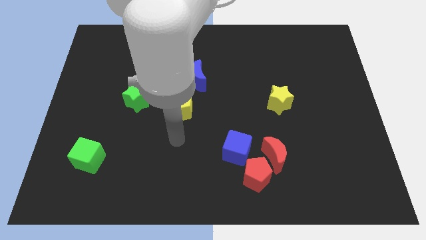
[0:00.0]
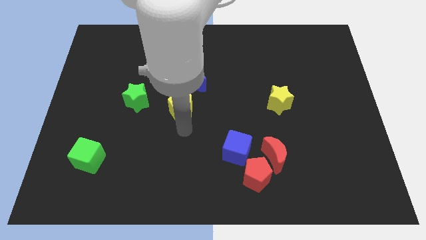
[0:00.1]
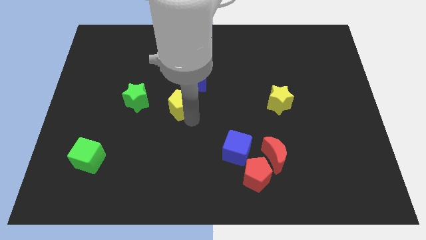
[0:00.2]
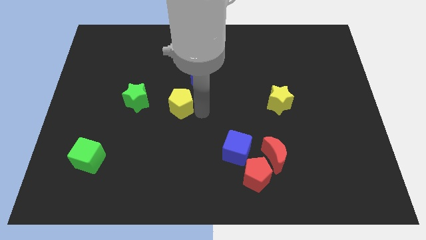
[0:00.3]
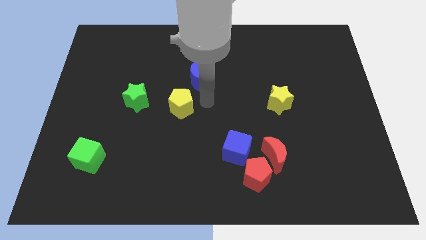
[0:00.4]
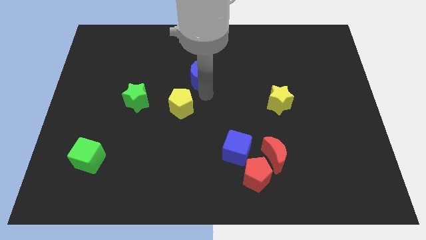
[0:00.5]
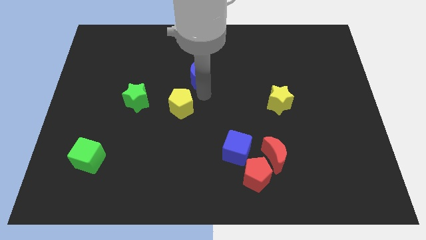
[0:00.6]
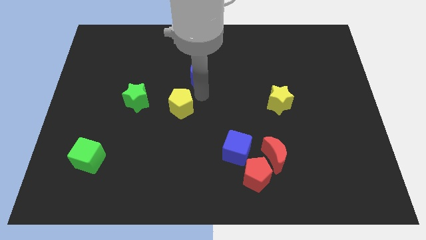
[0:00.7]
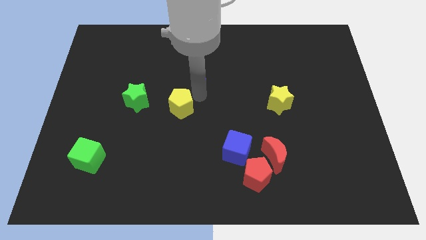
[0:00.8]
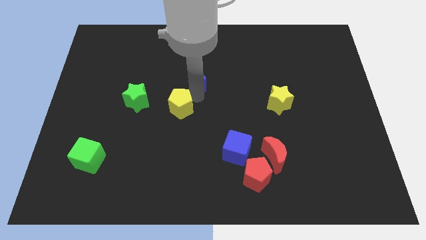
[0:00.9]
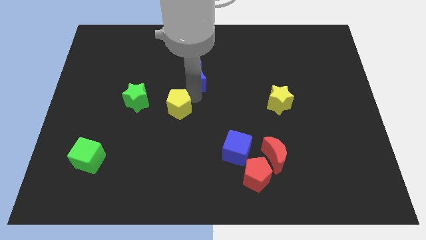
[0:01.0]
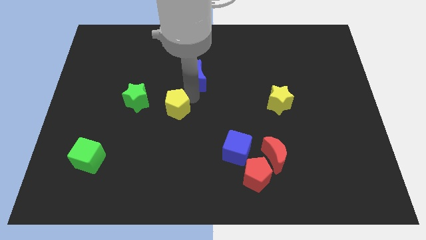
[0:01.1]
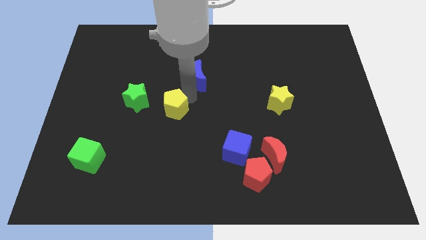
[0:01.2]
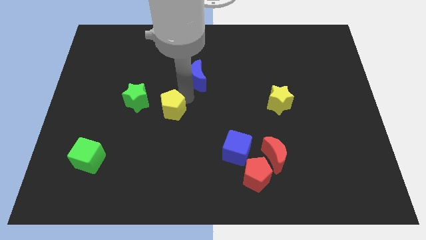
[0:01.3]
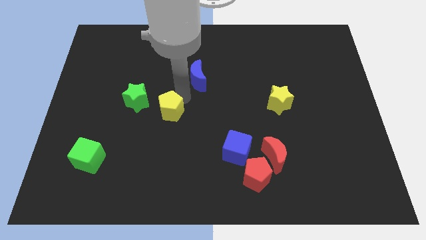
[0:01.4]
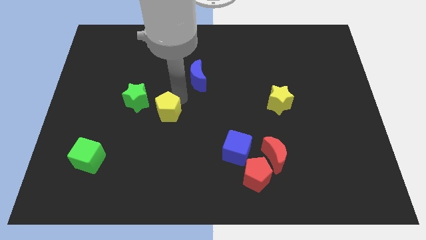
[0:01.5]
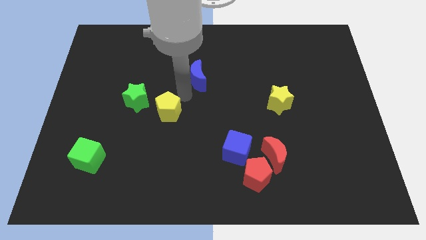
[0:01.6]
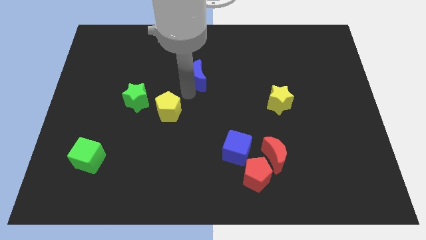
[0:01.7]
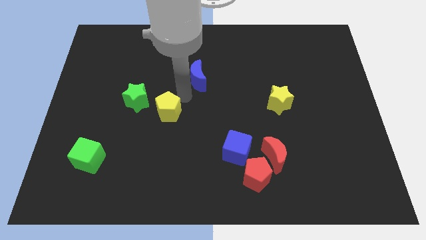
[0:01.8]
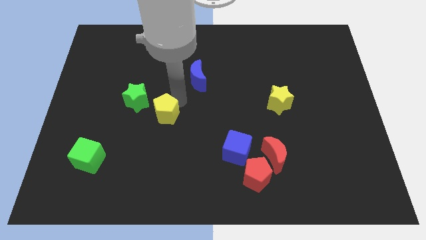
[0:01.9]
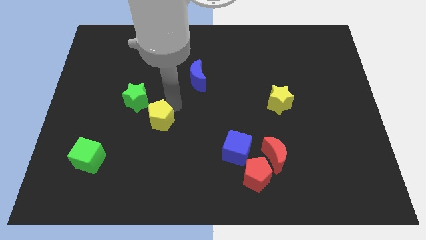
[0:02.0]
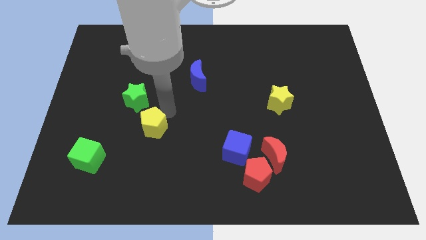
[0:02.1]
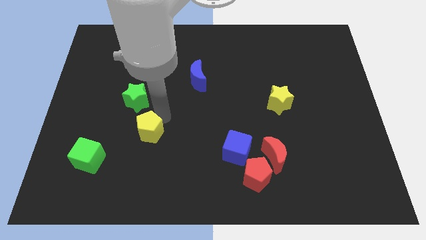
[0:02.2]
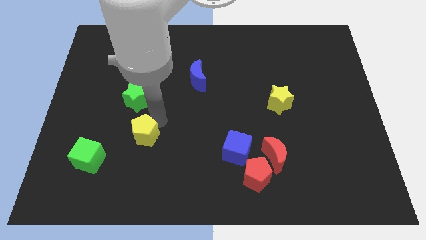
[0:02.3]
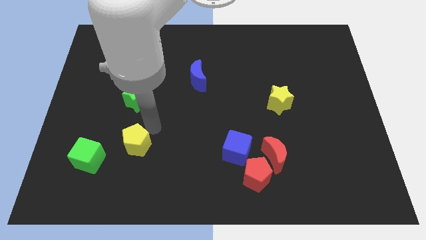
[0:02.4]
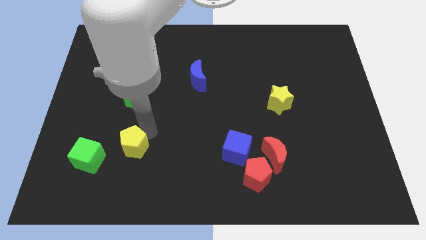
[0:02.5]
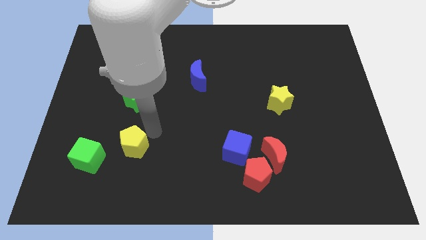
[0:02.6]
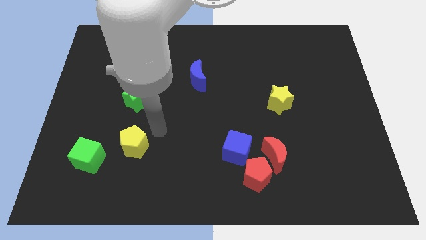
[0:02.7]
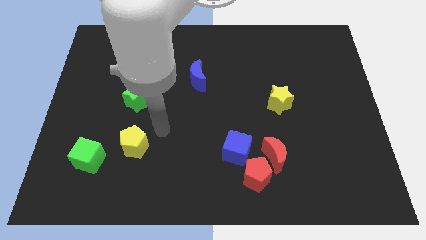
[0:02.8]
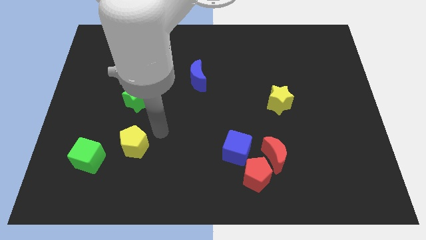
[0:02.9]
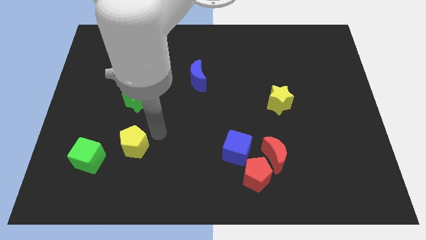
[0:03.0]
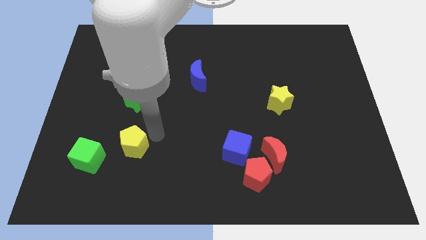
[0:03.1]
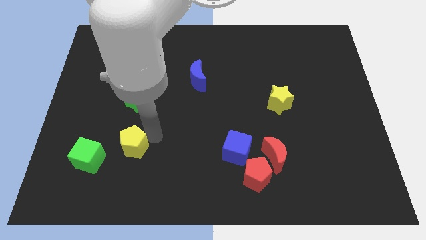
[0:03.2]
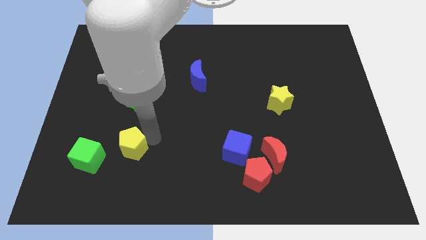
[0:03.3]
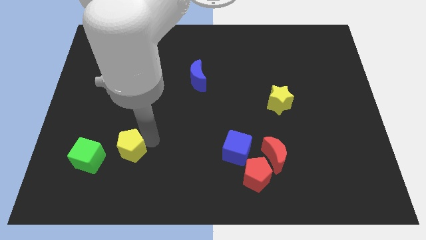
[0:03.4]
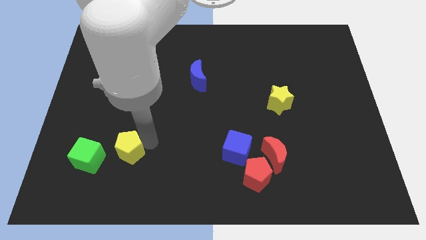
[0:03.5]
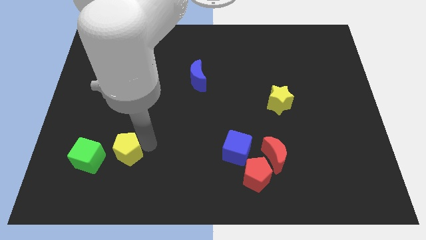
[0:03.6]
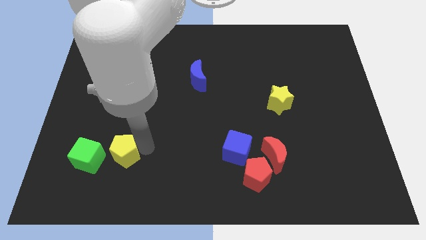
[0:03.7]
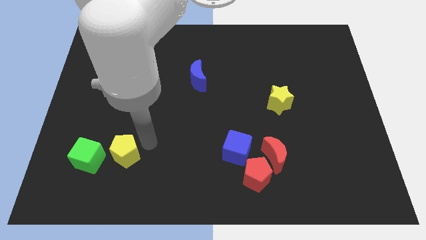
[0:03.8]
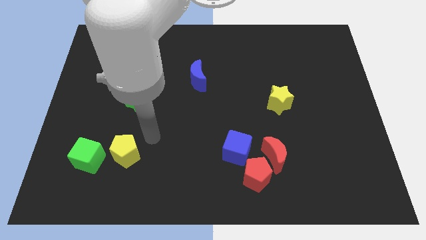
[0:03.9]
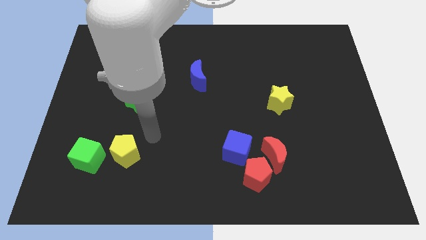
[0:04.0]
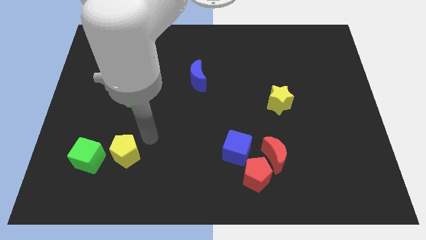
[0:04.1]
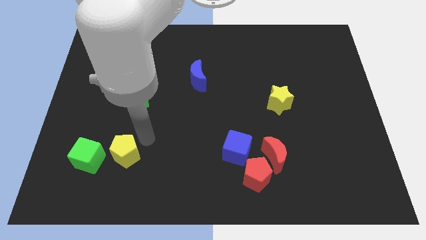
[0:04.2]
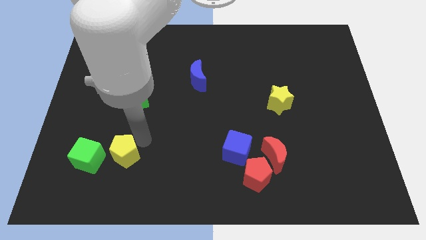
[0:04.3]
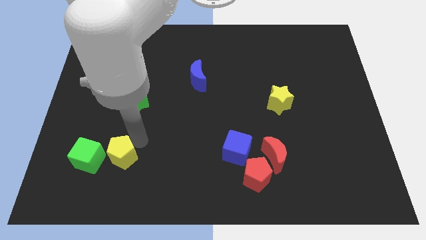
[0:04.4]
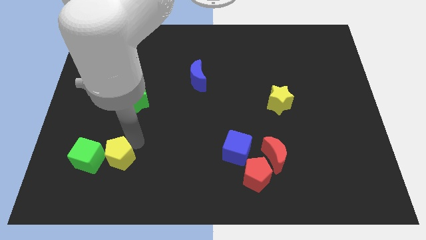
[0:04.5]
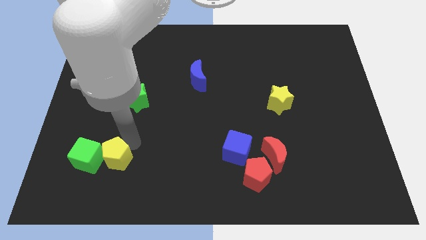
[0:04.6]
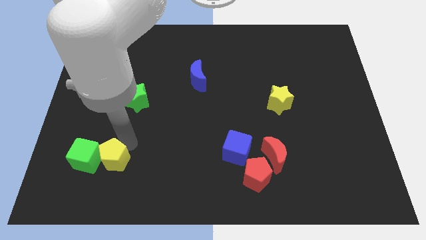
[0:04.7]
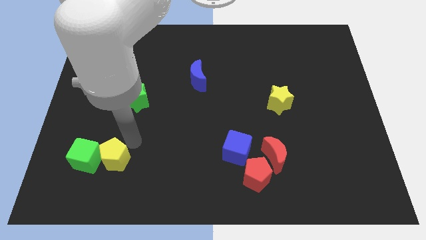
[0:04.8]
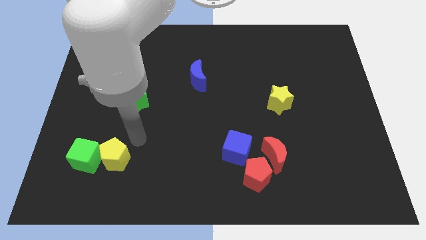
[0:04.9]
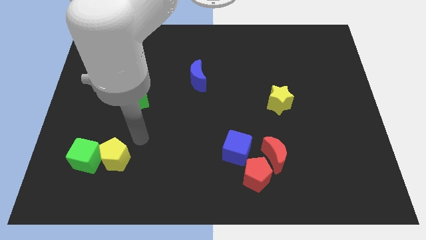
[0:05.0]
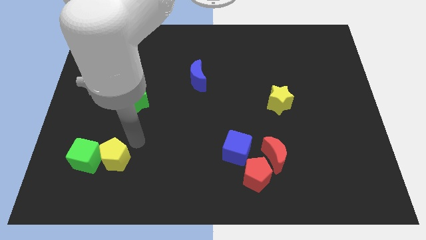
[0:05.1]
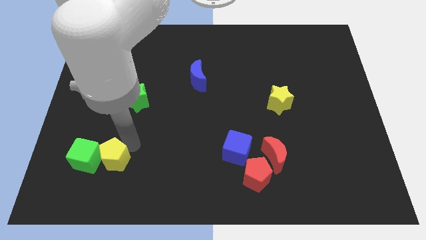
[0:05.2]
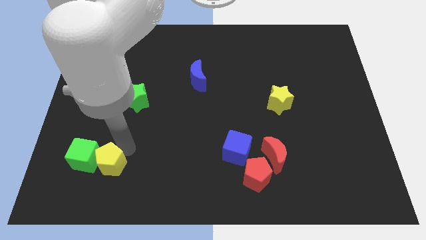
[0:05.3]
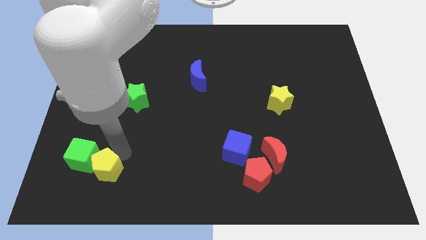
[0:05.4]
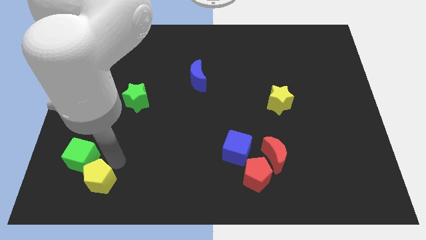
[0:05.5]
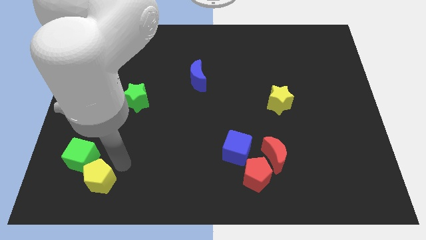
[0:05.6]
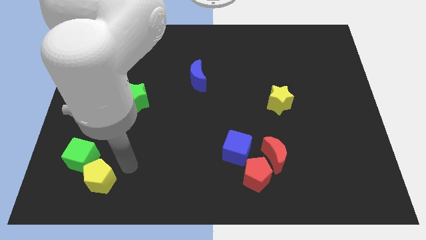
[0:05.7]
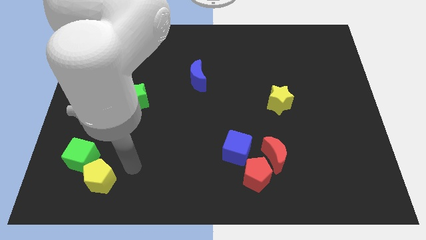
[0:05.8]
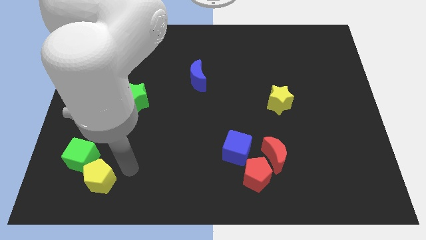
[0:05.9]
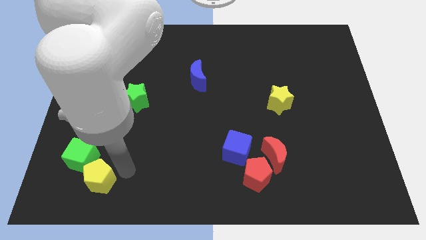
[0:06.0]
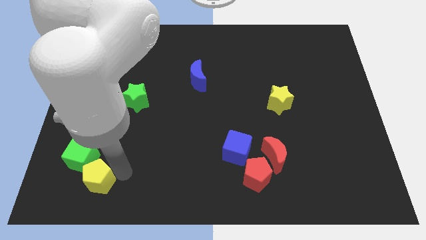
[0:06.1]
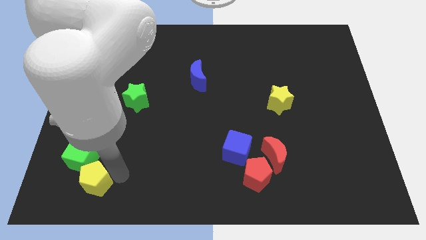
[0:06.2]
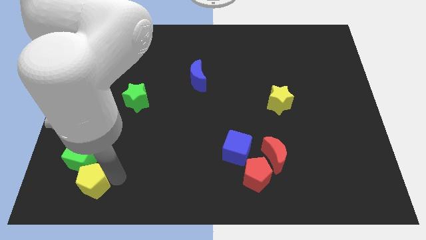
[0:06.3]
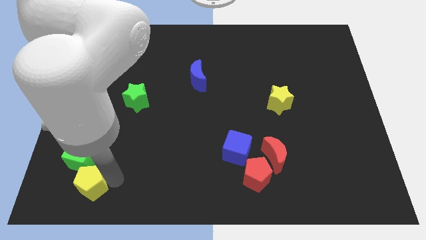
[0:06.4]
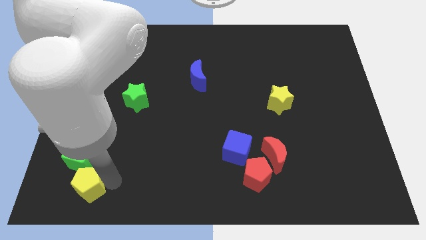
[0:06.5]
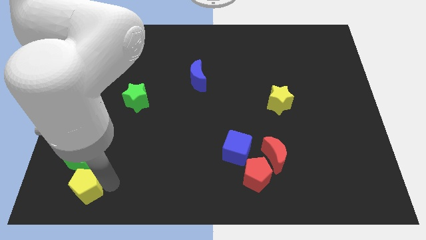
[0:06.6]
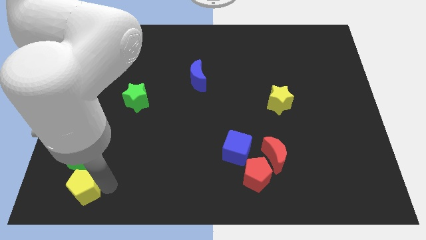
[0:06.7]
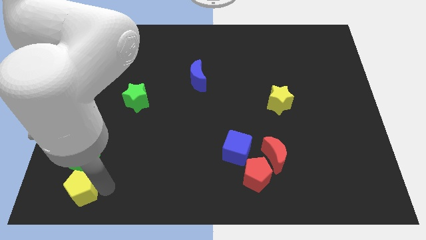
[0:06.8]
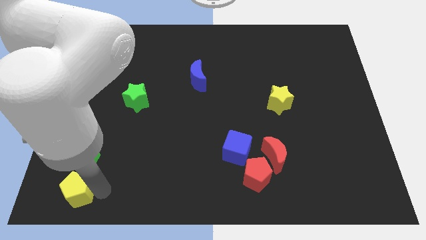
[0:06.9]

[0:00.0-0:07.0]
move the yellow pentagon to the bottom left
